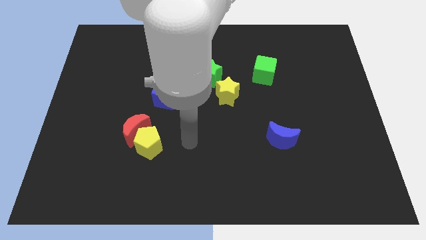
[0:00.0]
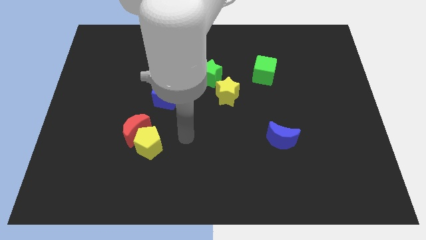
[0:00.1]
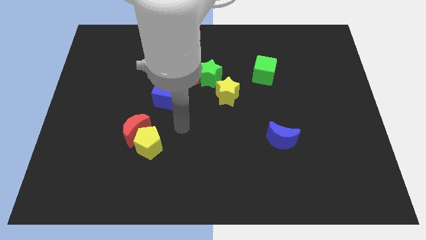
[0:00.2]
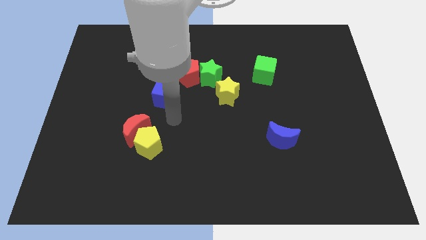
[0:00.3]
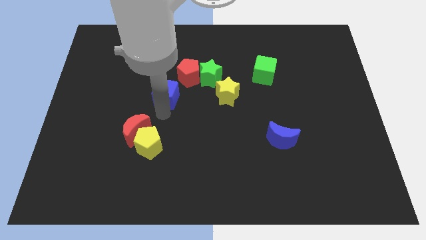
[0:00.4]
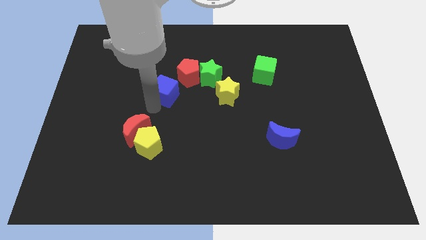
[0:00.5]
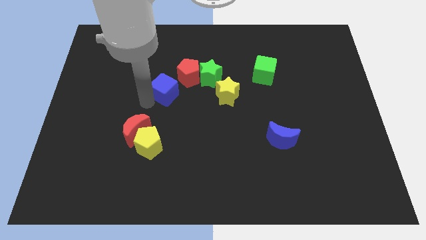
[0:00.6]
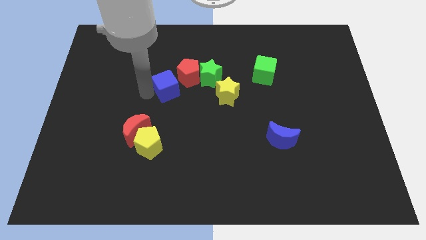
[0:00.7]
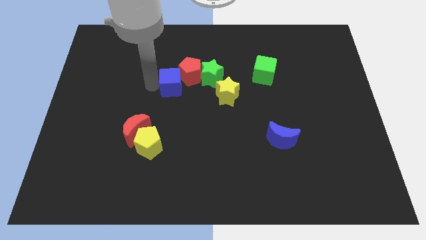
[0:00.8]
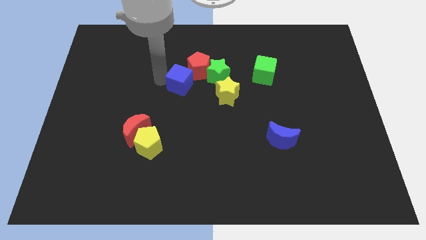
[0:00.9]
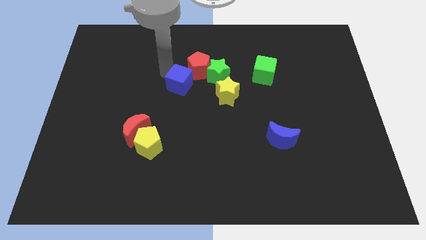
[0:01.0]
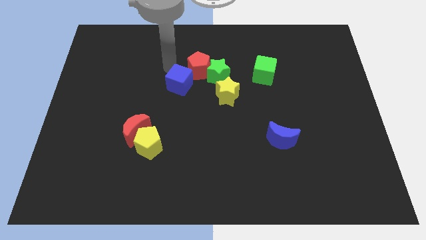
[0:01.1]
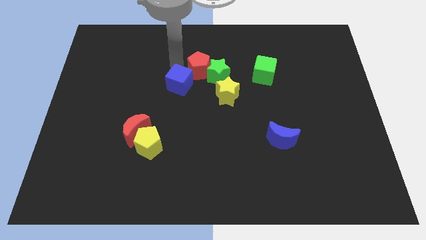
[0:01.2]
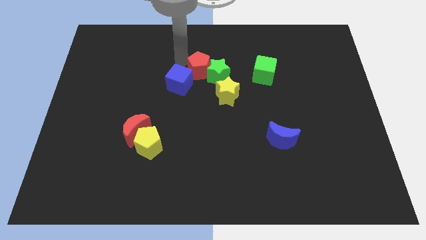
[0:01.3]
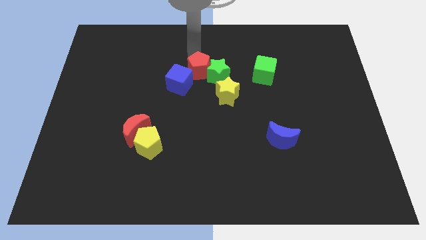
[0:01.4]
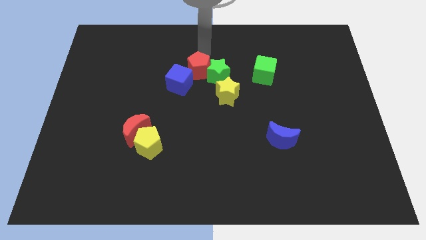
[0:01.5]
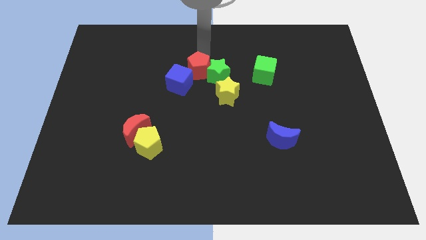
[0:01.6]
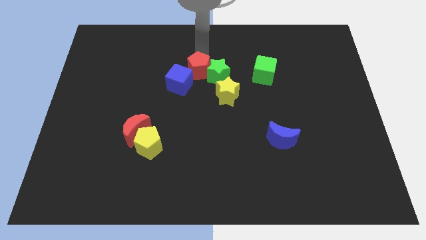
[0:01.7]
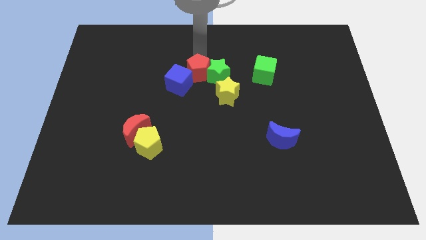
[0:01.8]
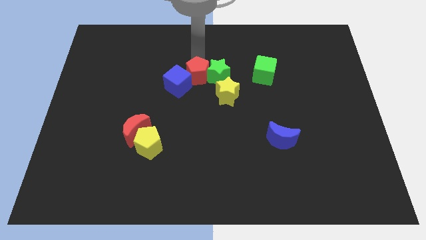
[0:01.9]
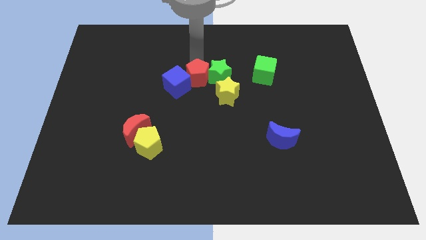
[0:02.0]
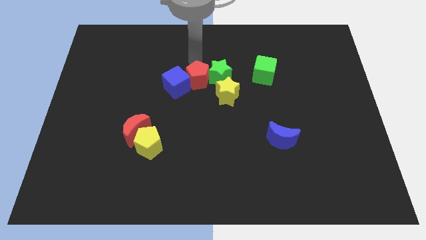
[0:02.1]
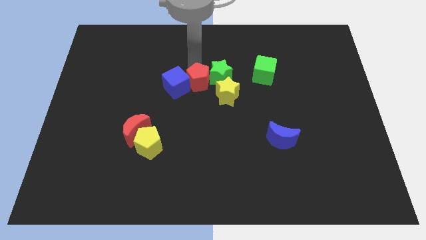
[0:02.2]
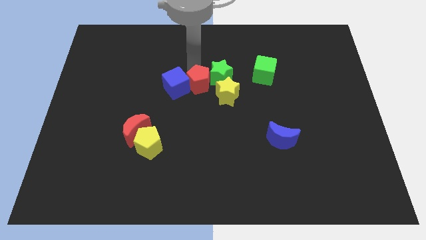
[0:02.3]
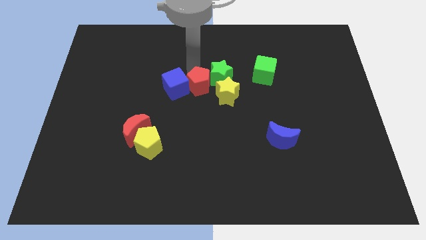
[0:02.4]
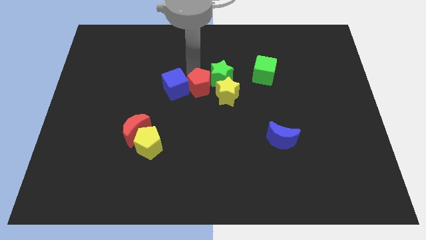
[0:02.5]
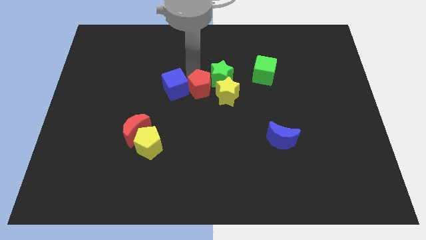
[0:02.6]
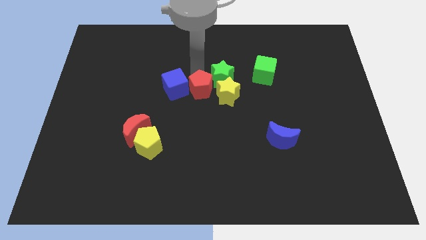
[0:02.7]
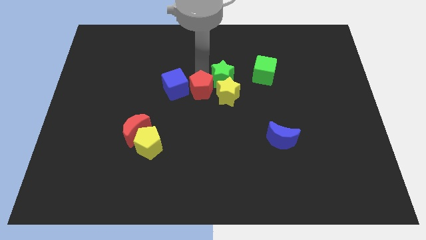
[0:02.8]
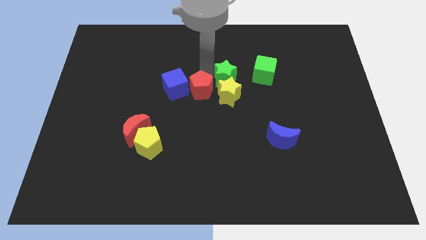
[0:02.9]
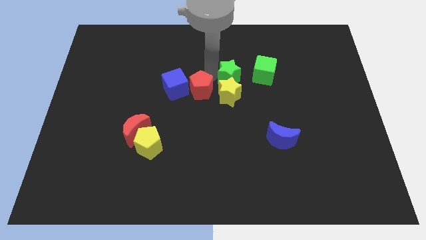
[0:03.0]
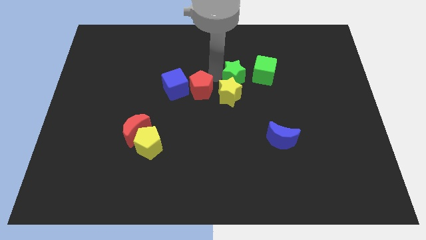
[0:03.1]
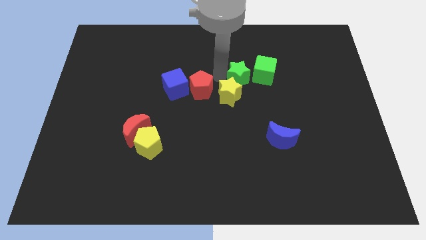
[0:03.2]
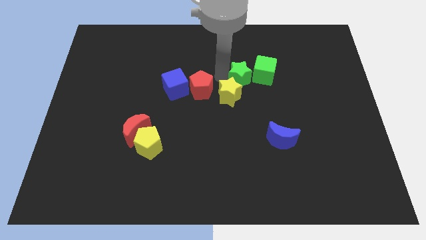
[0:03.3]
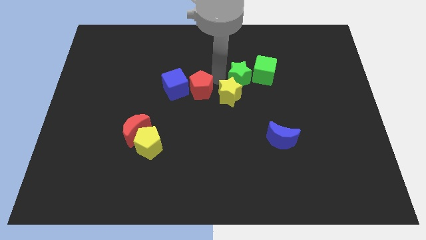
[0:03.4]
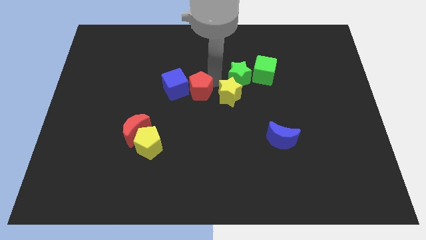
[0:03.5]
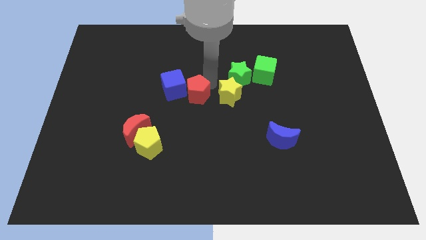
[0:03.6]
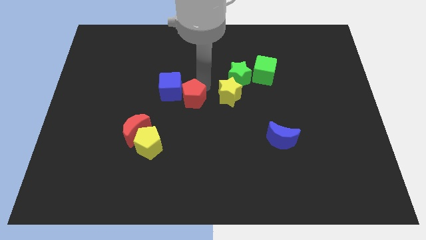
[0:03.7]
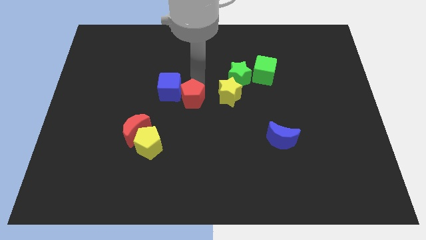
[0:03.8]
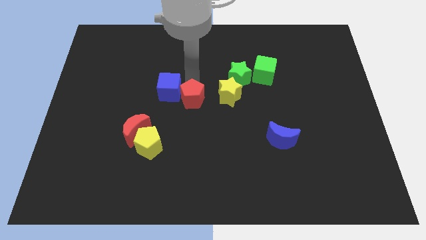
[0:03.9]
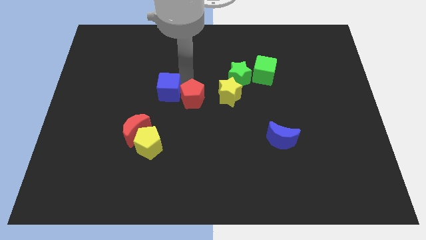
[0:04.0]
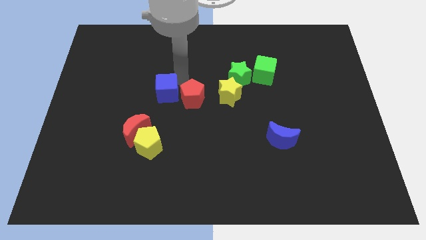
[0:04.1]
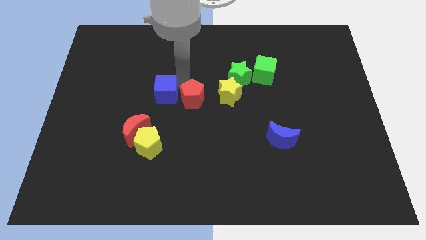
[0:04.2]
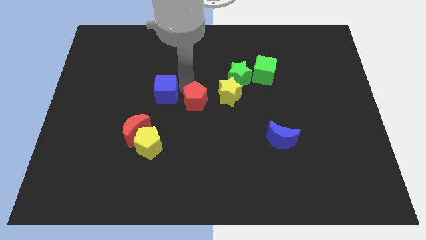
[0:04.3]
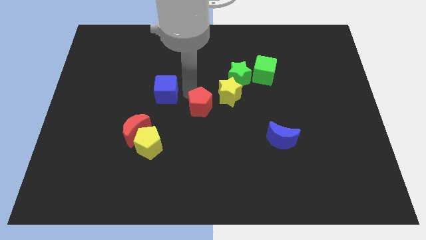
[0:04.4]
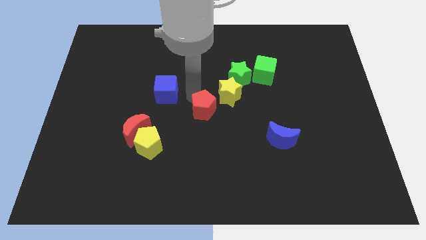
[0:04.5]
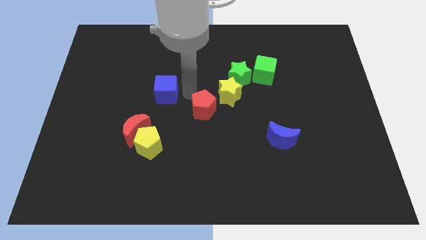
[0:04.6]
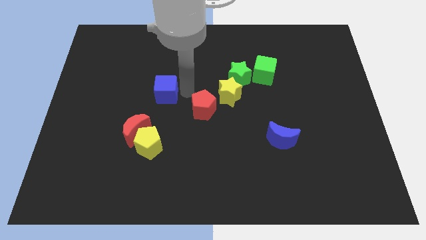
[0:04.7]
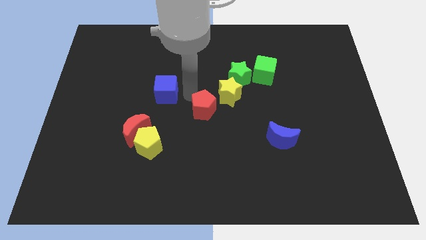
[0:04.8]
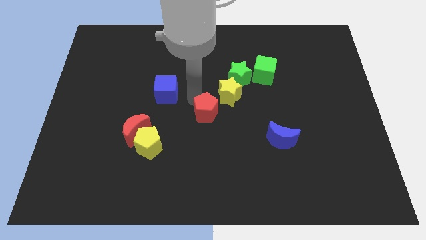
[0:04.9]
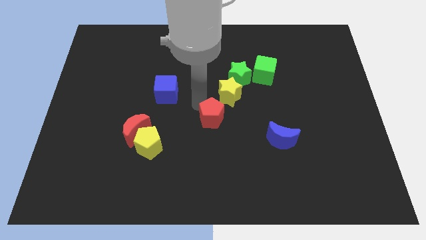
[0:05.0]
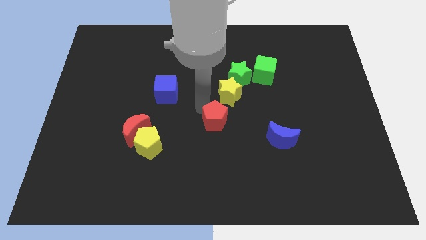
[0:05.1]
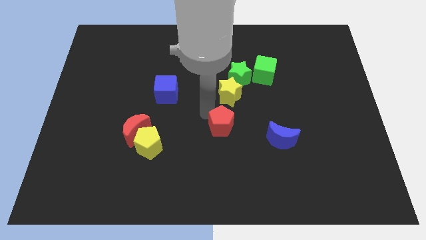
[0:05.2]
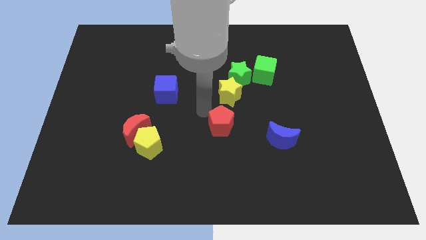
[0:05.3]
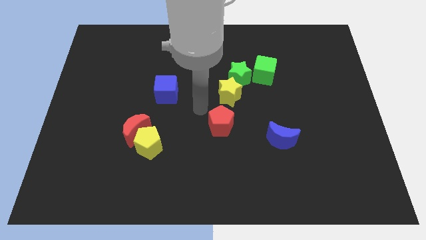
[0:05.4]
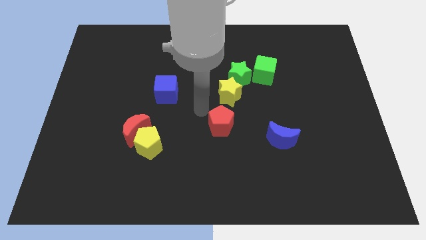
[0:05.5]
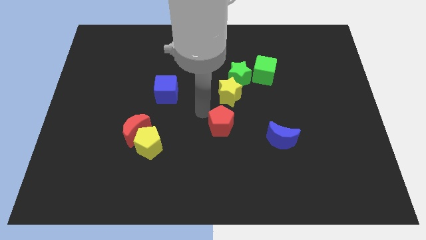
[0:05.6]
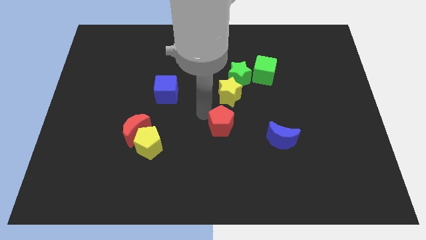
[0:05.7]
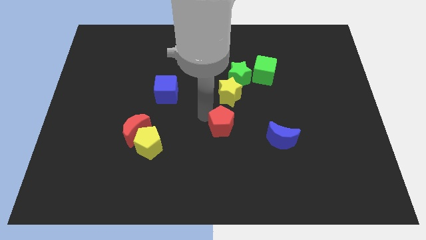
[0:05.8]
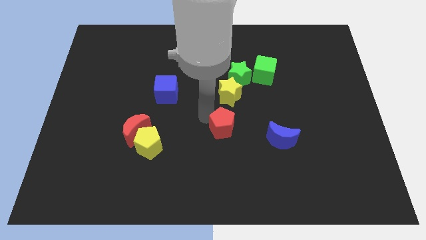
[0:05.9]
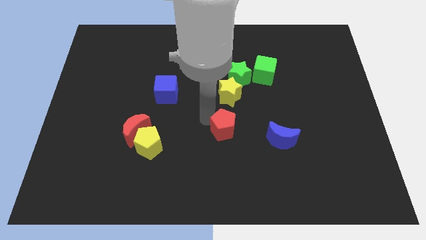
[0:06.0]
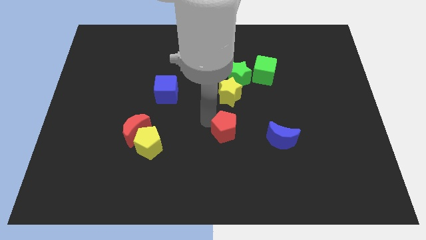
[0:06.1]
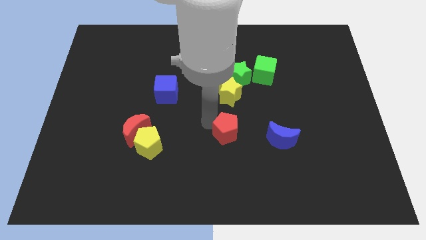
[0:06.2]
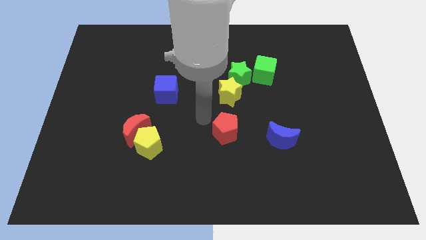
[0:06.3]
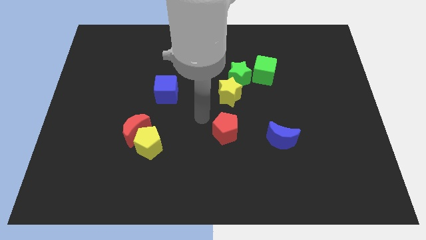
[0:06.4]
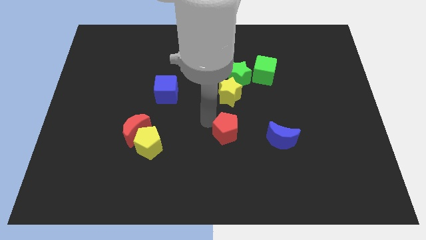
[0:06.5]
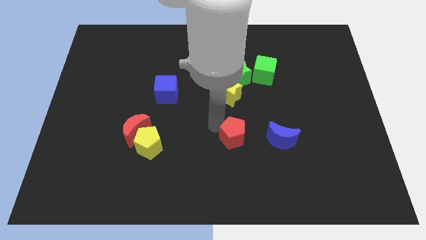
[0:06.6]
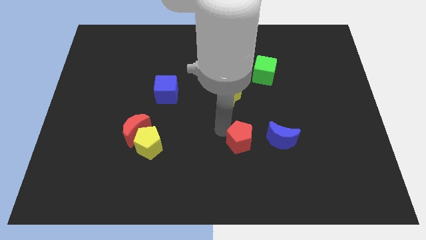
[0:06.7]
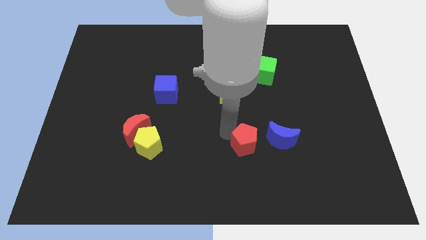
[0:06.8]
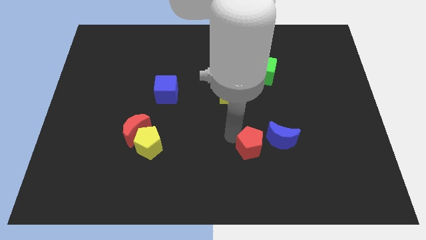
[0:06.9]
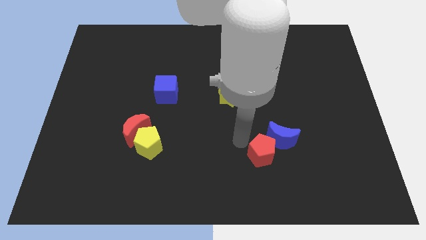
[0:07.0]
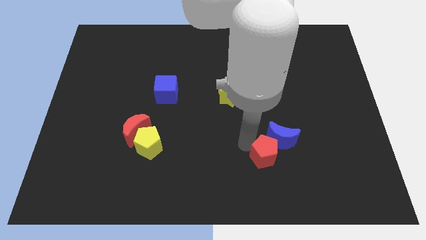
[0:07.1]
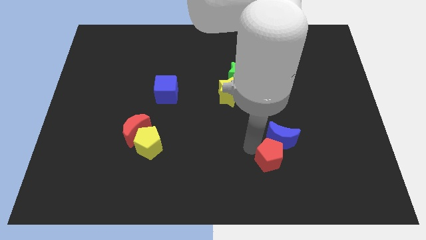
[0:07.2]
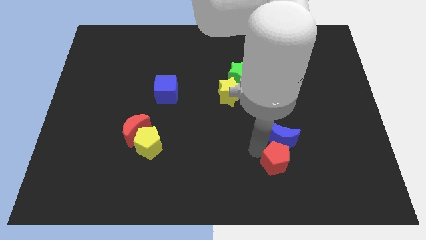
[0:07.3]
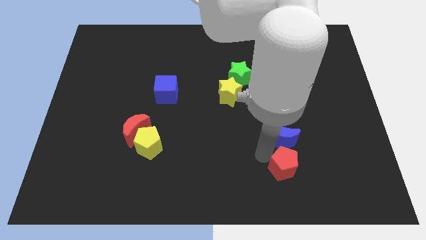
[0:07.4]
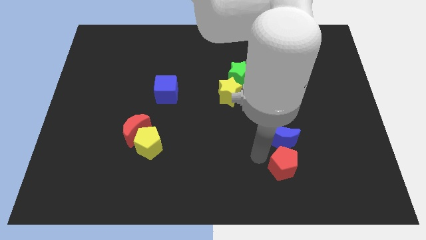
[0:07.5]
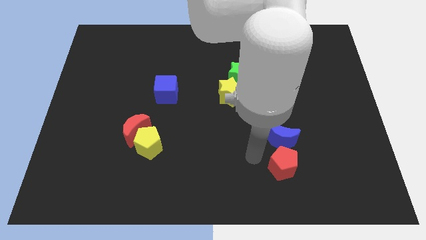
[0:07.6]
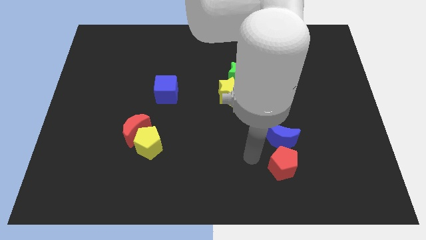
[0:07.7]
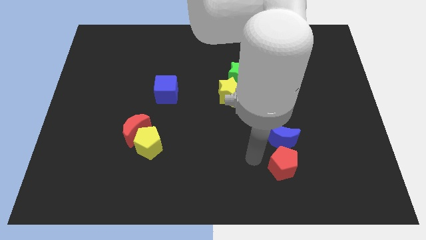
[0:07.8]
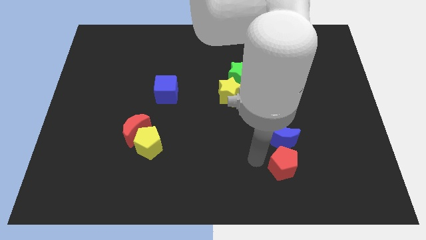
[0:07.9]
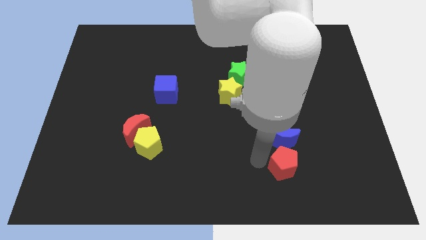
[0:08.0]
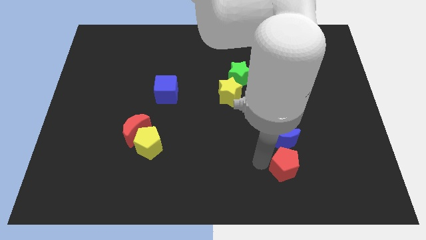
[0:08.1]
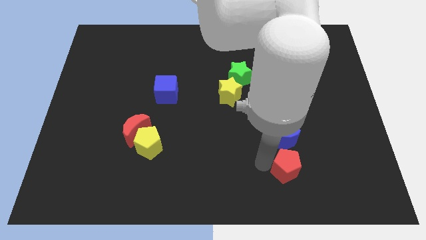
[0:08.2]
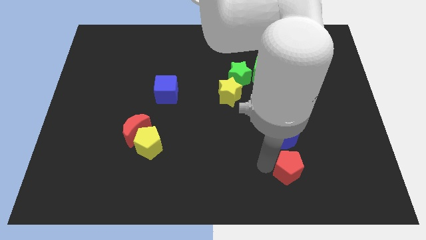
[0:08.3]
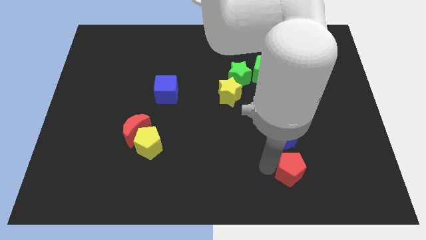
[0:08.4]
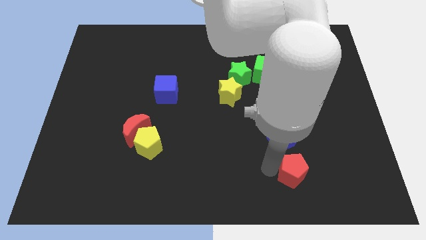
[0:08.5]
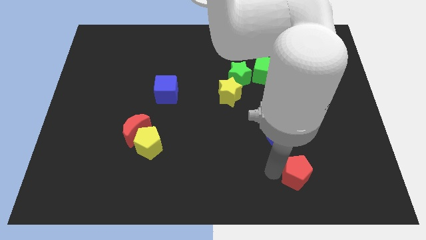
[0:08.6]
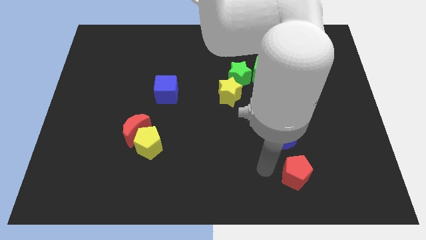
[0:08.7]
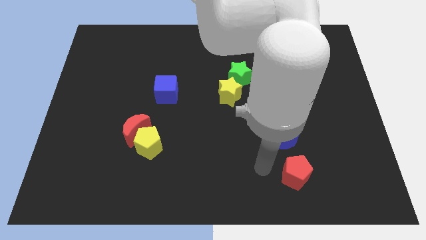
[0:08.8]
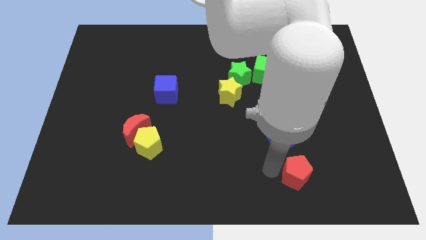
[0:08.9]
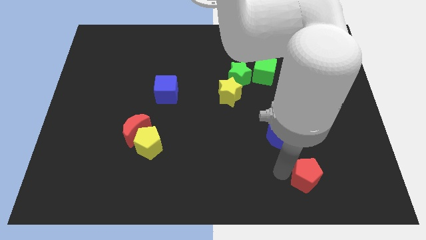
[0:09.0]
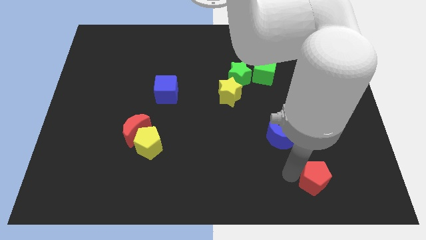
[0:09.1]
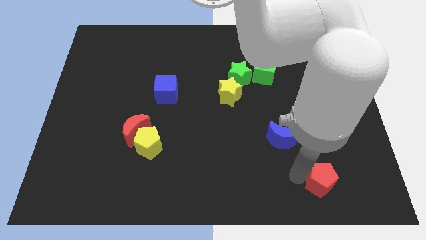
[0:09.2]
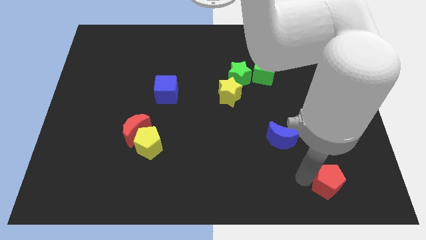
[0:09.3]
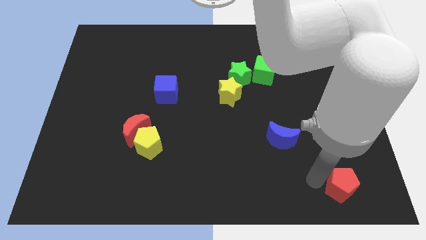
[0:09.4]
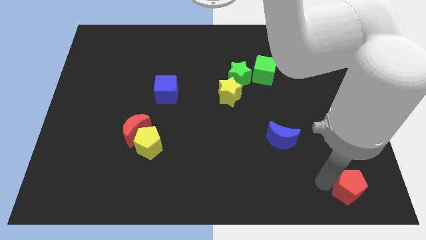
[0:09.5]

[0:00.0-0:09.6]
slide the red pentagon to the lower right corner
